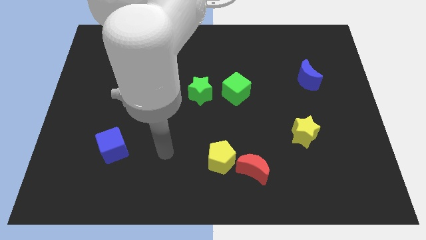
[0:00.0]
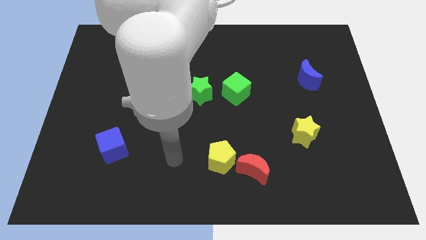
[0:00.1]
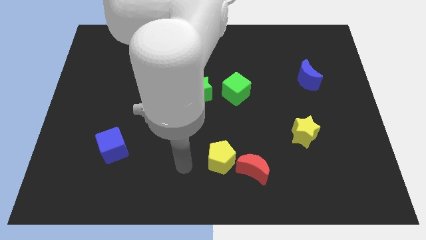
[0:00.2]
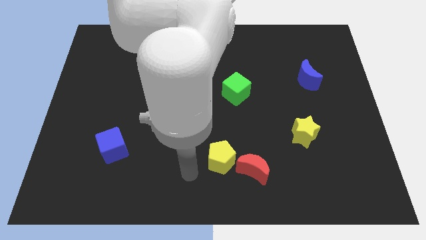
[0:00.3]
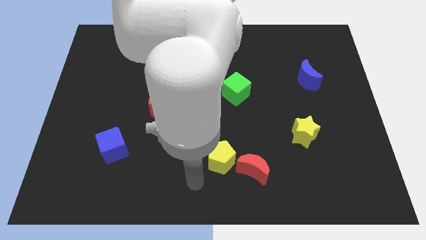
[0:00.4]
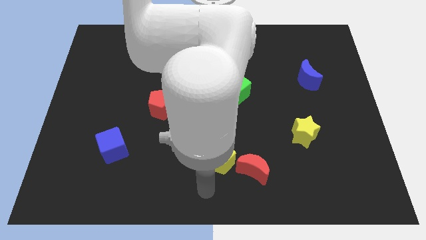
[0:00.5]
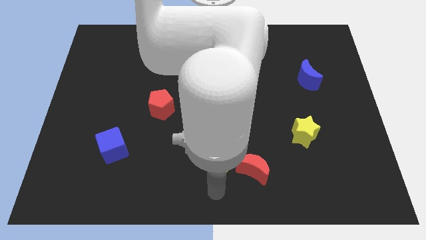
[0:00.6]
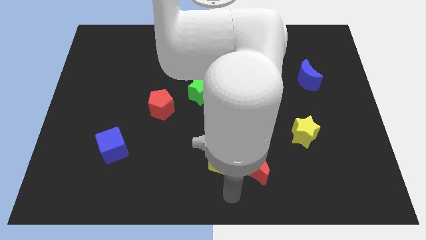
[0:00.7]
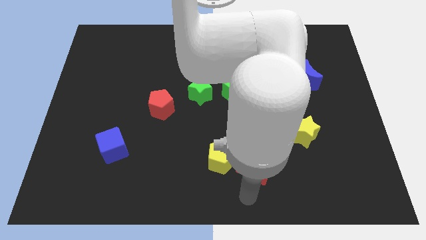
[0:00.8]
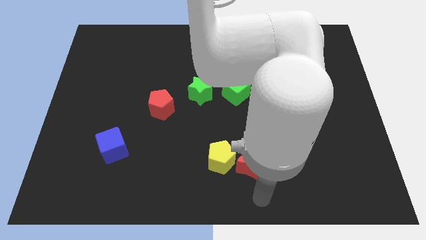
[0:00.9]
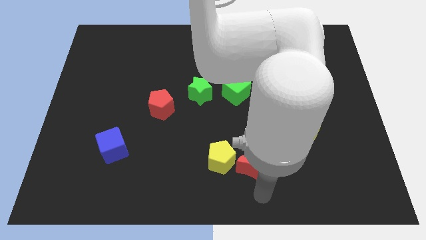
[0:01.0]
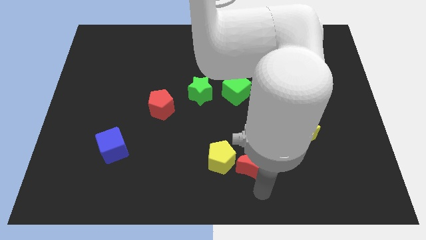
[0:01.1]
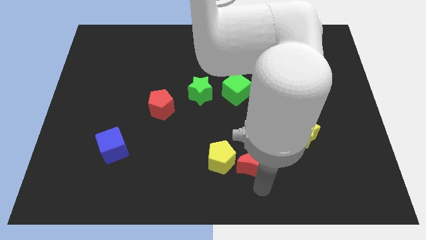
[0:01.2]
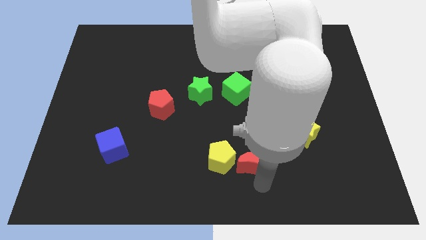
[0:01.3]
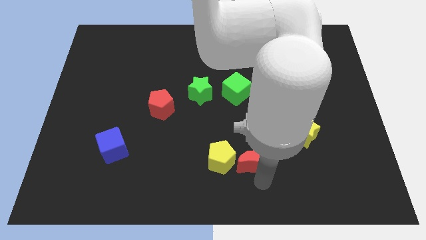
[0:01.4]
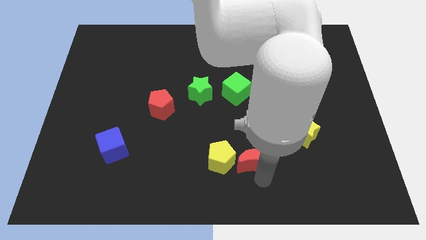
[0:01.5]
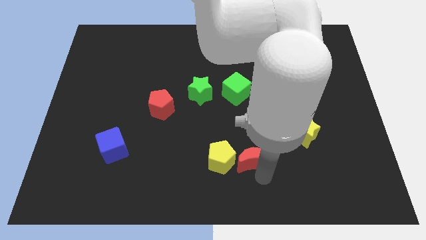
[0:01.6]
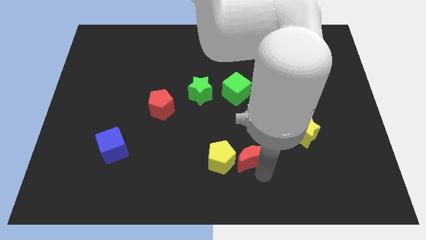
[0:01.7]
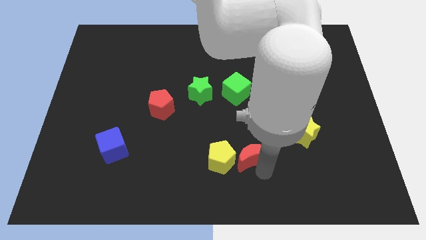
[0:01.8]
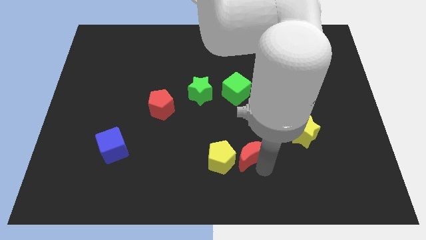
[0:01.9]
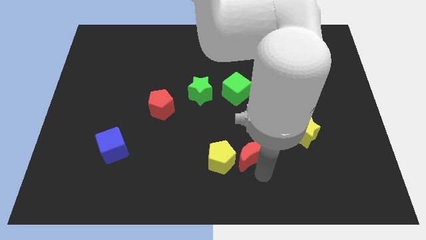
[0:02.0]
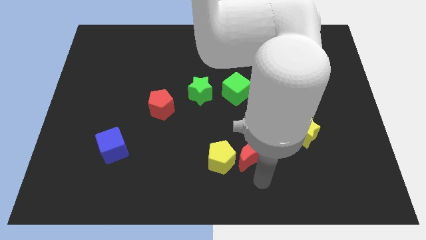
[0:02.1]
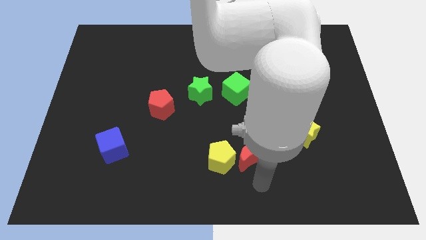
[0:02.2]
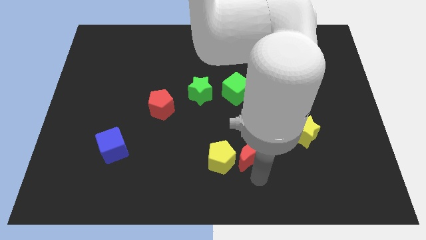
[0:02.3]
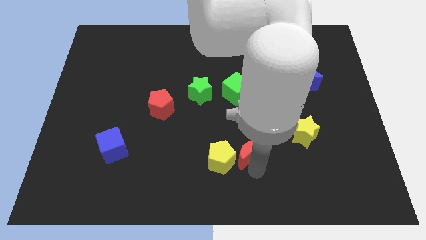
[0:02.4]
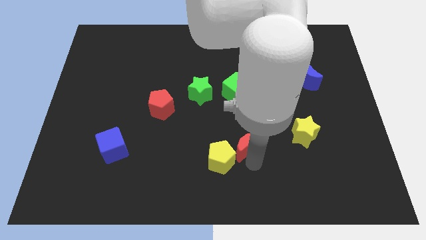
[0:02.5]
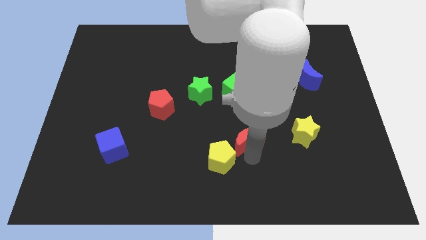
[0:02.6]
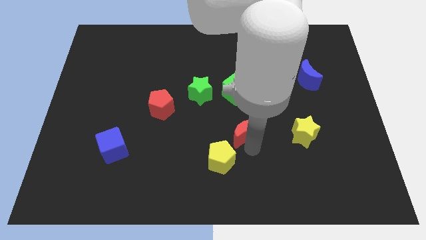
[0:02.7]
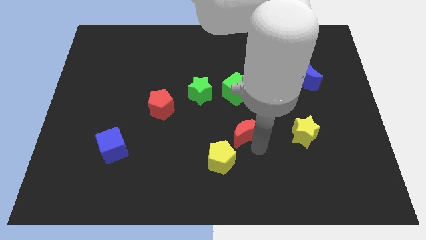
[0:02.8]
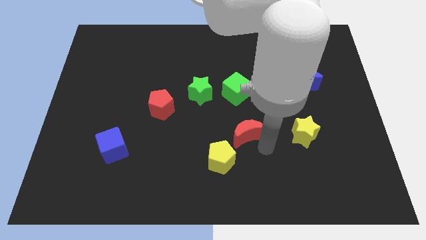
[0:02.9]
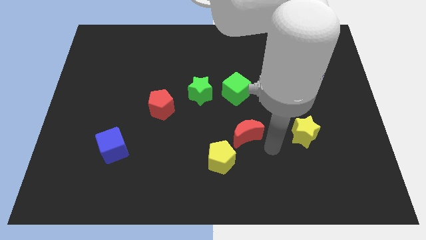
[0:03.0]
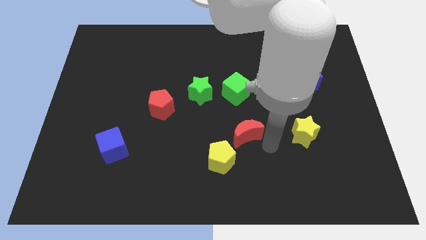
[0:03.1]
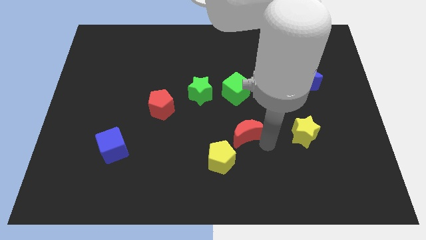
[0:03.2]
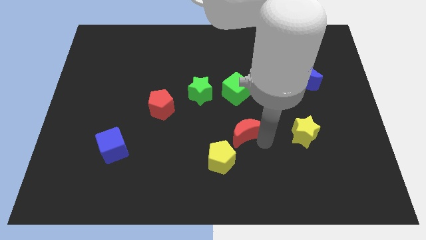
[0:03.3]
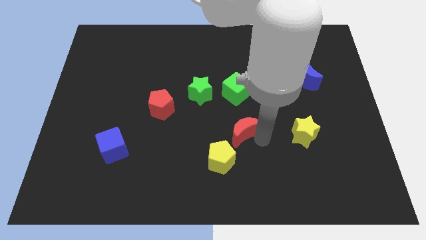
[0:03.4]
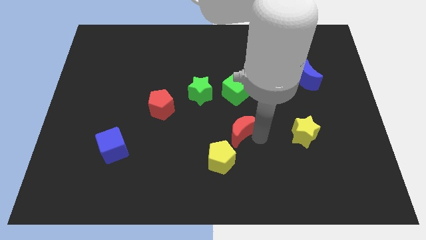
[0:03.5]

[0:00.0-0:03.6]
move the red moon a little up and to the left diagonally

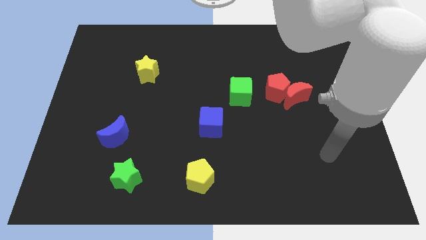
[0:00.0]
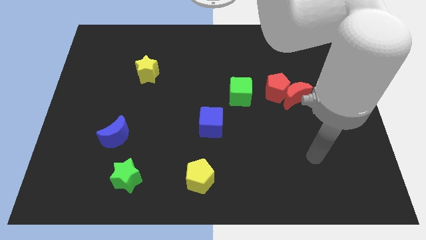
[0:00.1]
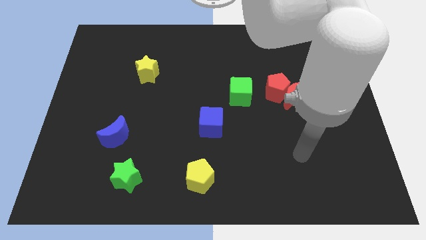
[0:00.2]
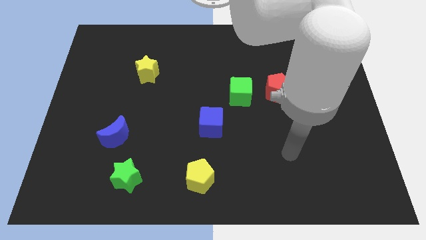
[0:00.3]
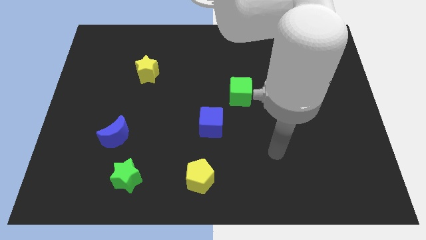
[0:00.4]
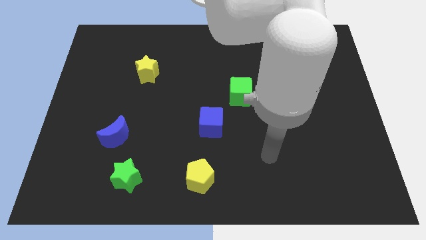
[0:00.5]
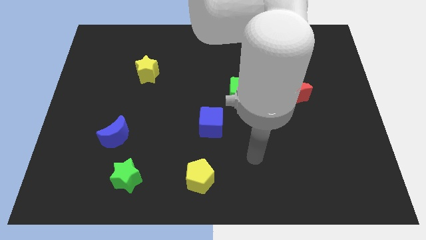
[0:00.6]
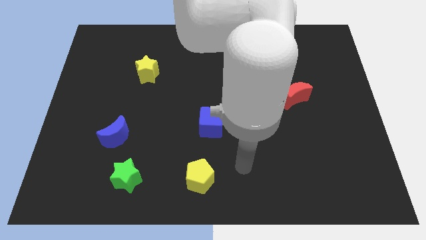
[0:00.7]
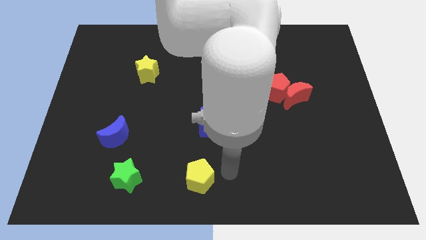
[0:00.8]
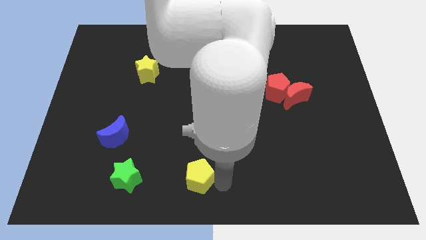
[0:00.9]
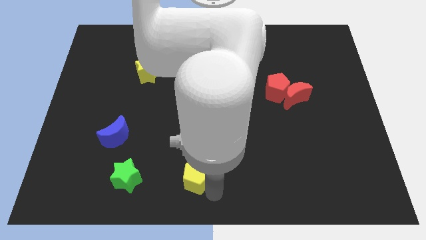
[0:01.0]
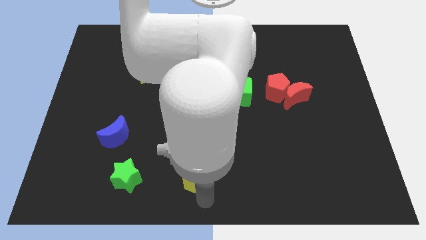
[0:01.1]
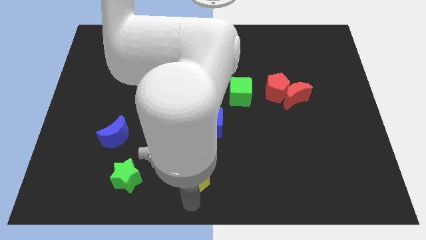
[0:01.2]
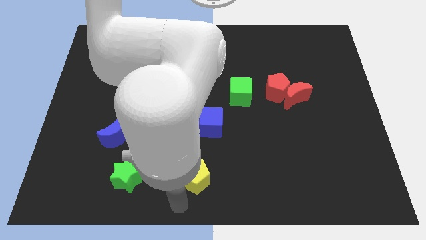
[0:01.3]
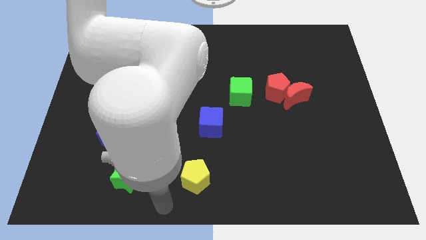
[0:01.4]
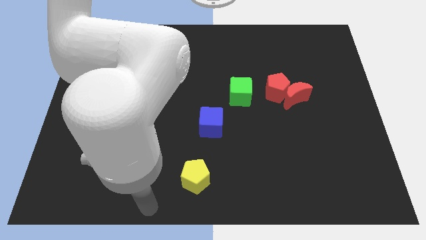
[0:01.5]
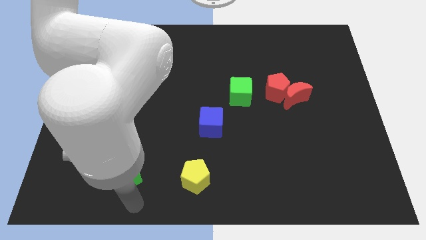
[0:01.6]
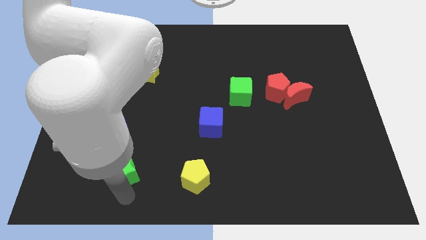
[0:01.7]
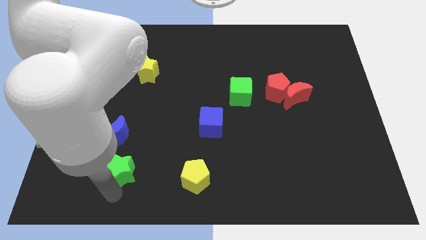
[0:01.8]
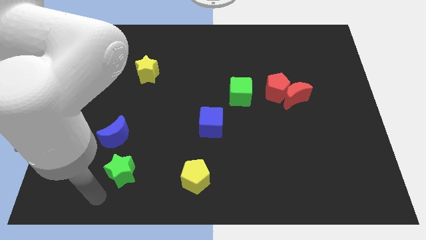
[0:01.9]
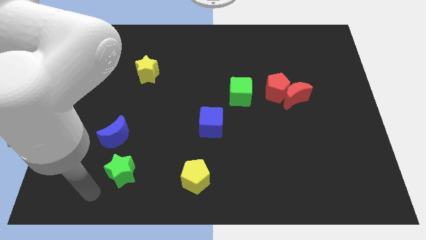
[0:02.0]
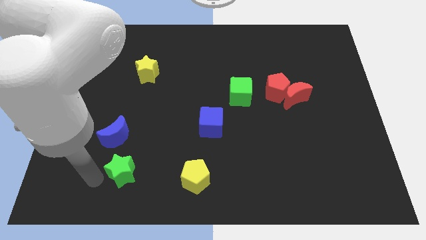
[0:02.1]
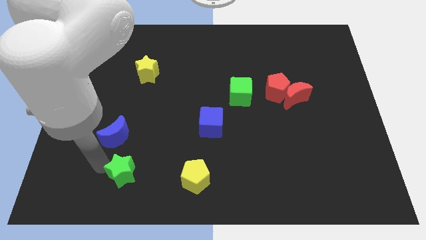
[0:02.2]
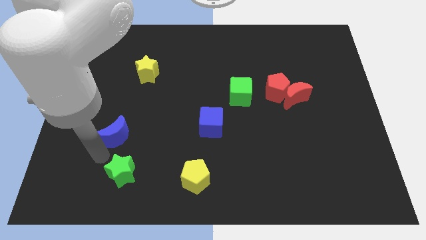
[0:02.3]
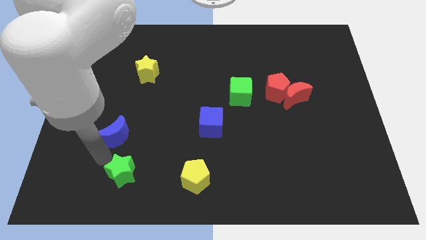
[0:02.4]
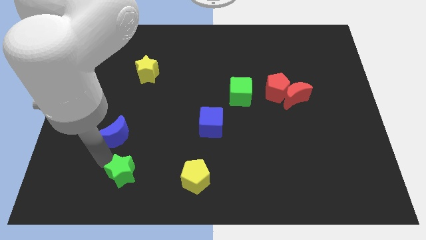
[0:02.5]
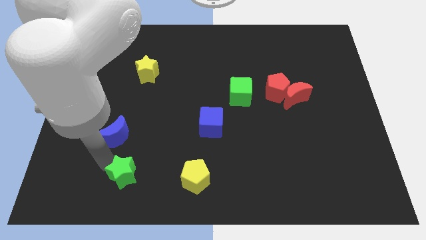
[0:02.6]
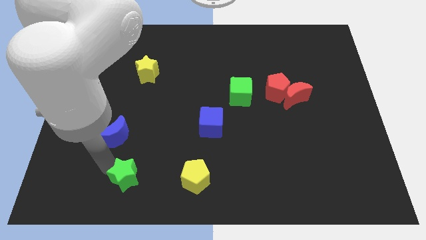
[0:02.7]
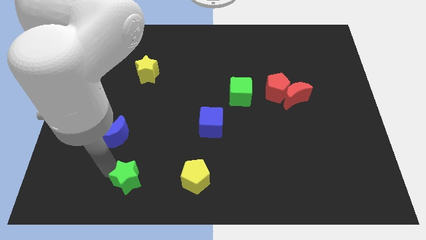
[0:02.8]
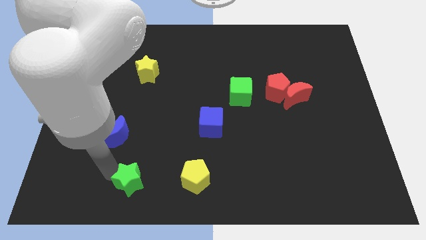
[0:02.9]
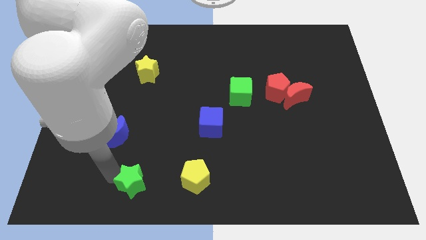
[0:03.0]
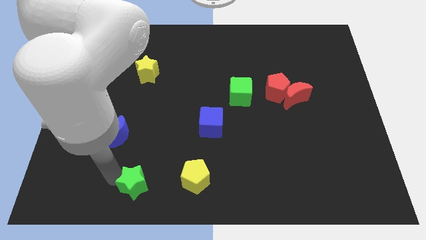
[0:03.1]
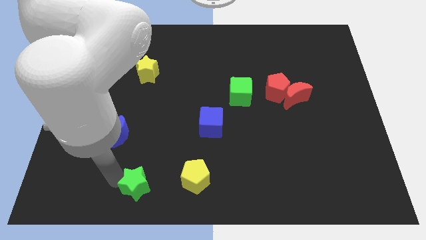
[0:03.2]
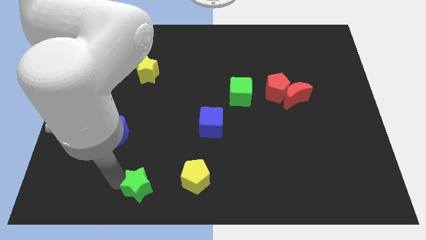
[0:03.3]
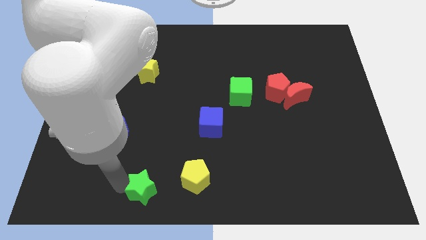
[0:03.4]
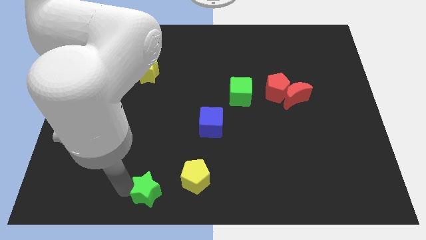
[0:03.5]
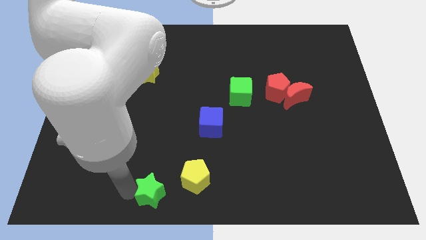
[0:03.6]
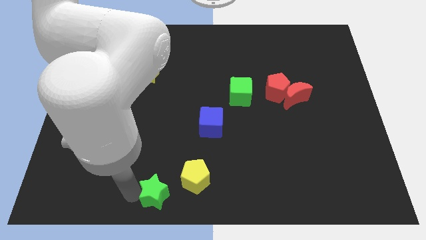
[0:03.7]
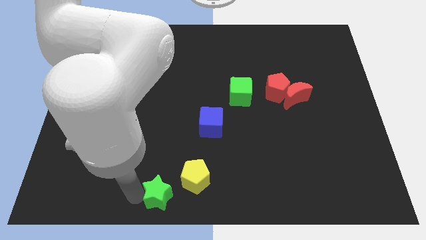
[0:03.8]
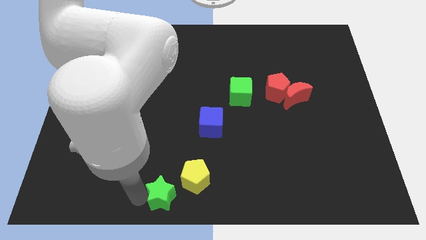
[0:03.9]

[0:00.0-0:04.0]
slightly move the green star to the right

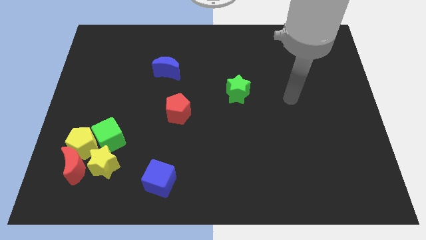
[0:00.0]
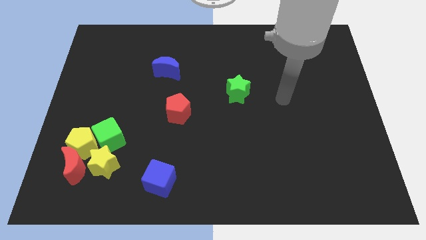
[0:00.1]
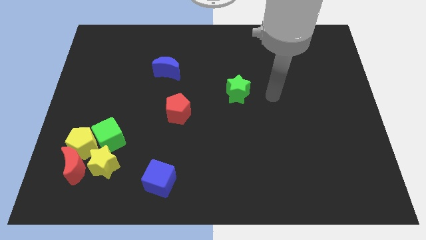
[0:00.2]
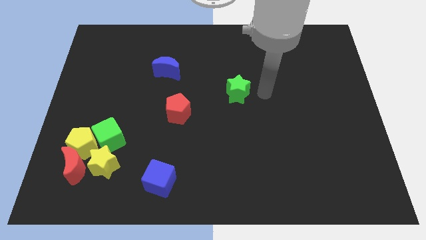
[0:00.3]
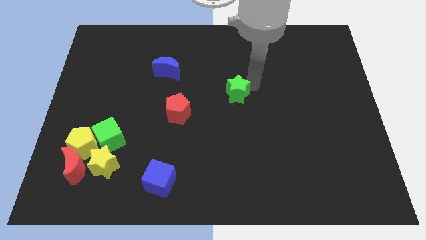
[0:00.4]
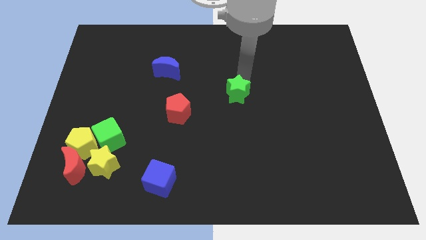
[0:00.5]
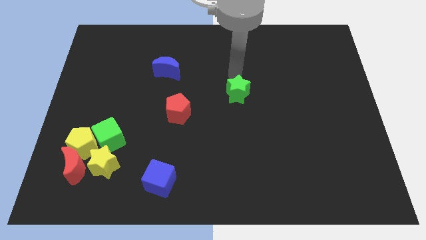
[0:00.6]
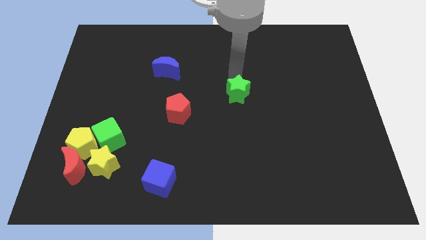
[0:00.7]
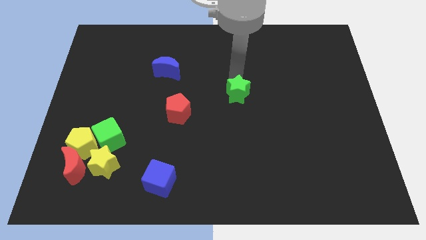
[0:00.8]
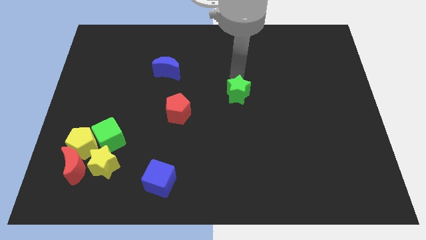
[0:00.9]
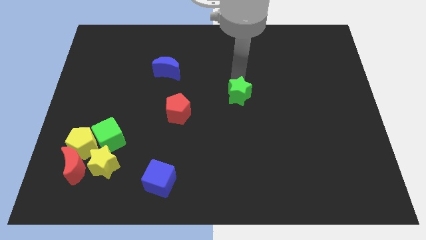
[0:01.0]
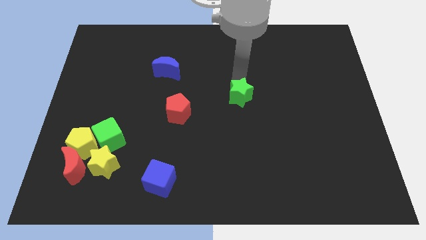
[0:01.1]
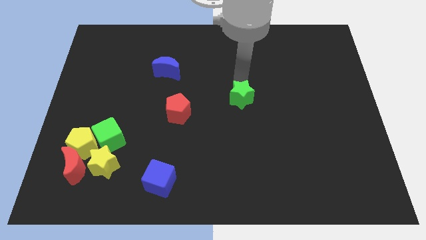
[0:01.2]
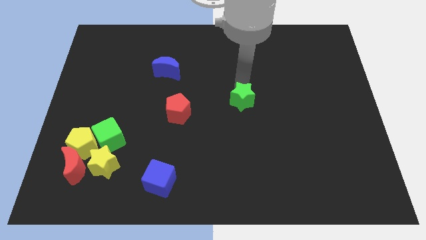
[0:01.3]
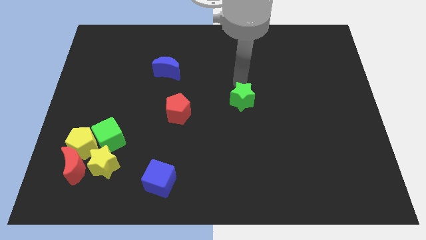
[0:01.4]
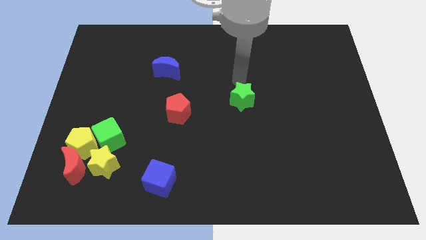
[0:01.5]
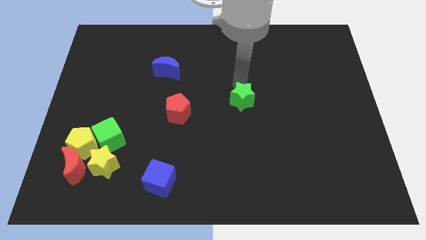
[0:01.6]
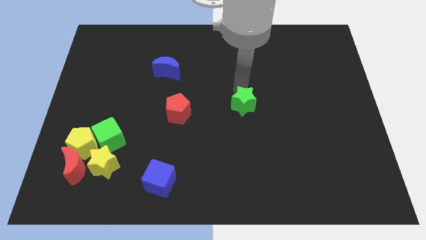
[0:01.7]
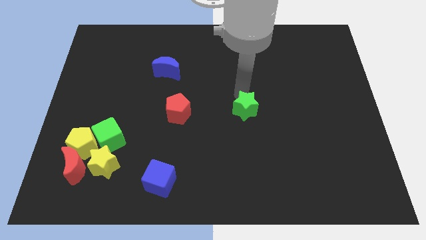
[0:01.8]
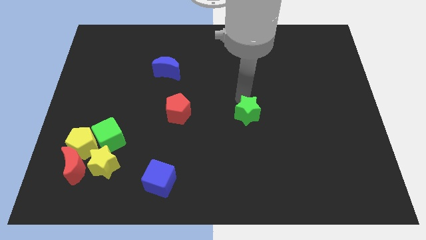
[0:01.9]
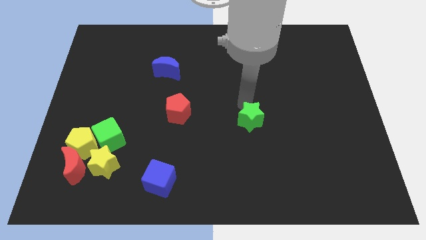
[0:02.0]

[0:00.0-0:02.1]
move the green star a bit down
